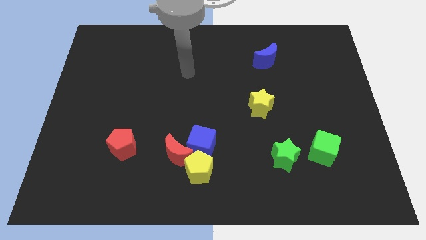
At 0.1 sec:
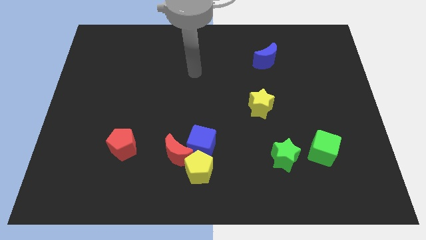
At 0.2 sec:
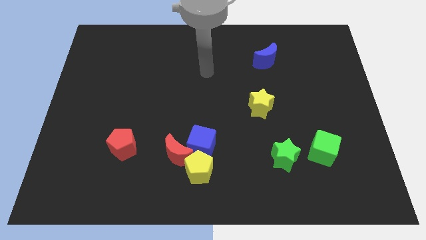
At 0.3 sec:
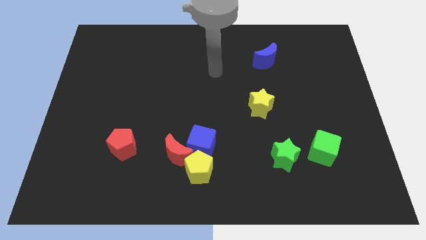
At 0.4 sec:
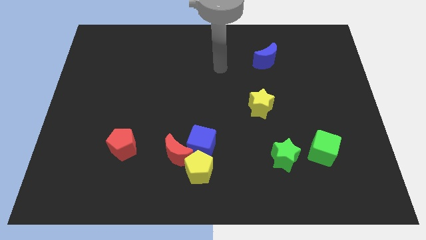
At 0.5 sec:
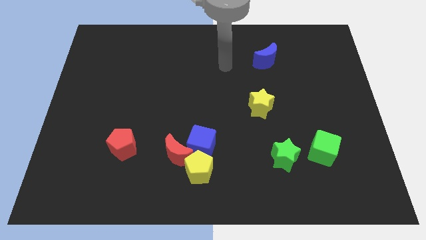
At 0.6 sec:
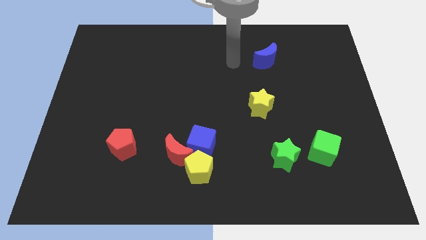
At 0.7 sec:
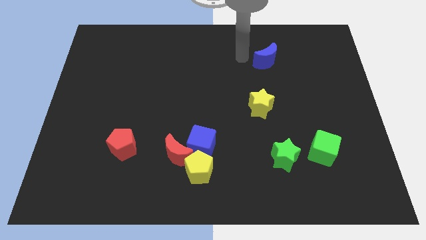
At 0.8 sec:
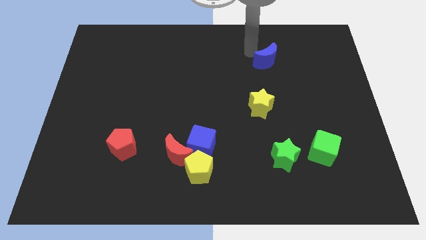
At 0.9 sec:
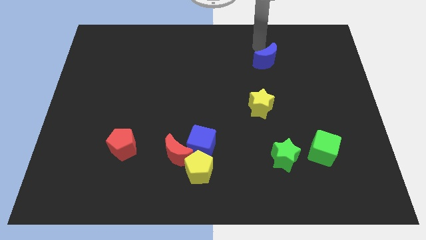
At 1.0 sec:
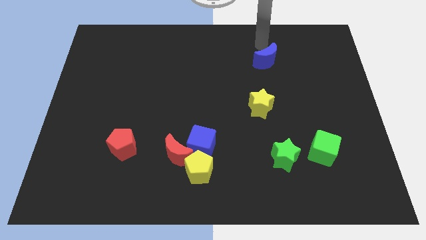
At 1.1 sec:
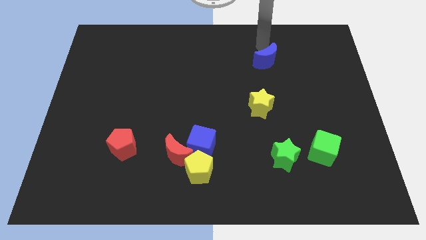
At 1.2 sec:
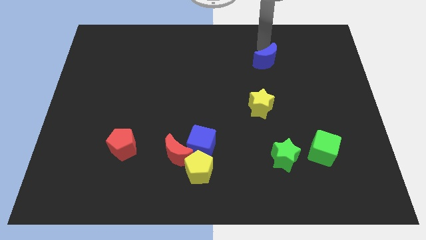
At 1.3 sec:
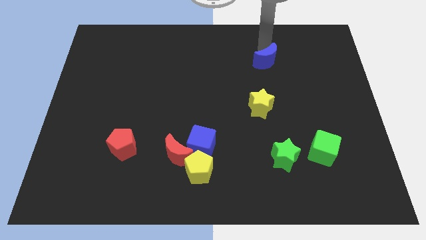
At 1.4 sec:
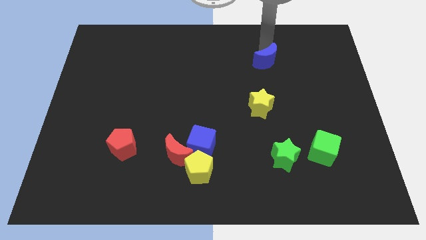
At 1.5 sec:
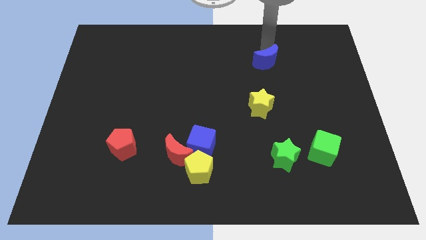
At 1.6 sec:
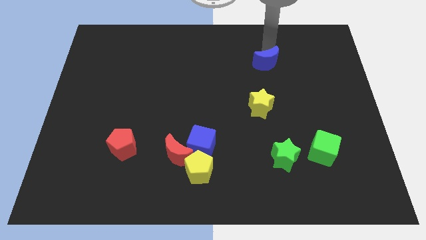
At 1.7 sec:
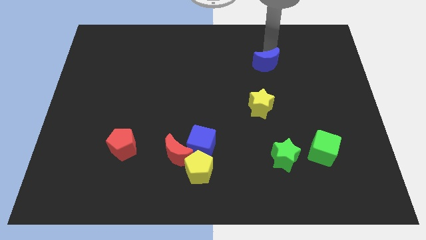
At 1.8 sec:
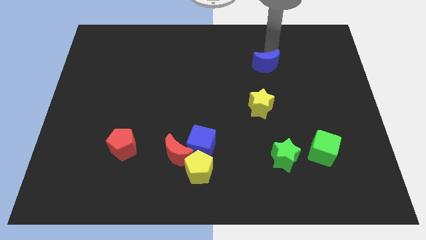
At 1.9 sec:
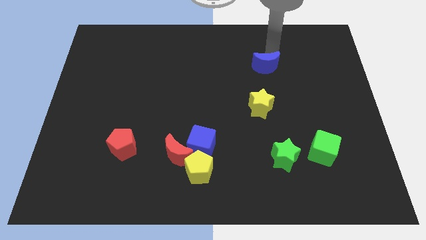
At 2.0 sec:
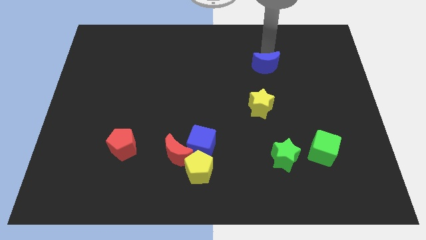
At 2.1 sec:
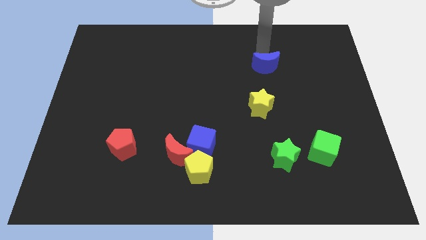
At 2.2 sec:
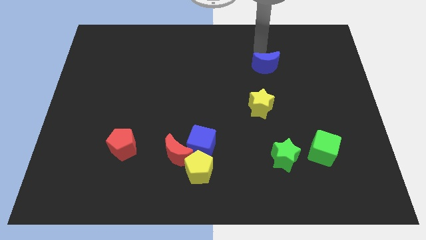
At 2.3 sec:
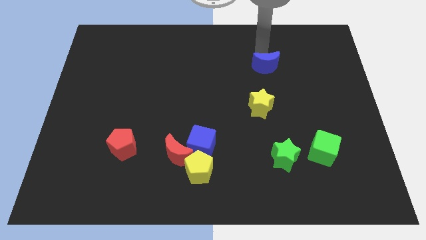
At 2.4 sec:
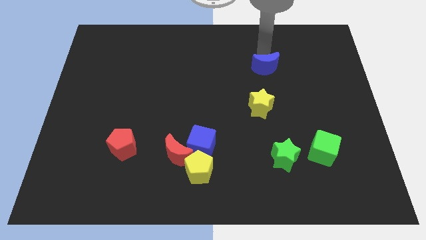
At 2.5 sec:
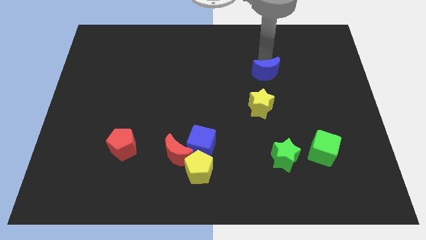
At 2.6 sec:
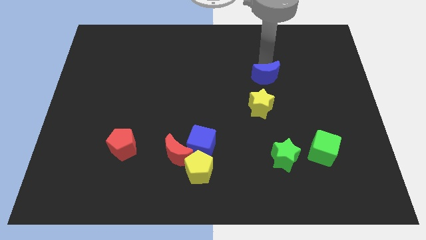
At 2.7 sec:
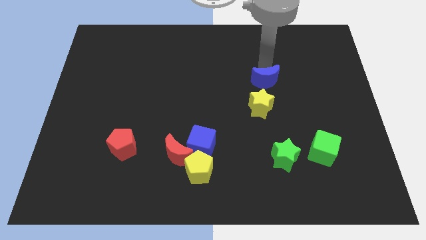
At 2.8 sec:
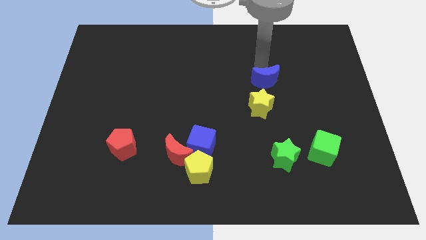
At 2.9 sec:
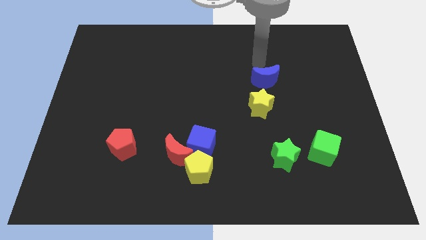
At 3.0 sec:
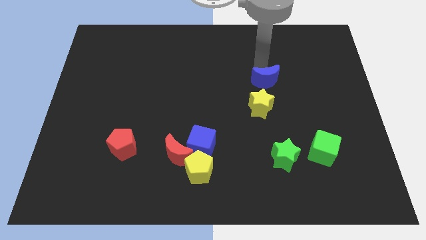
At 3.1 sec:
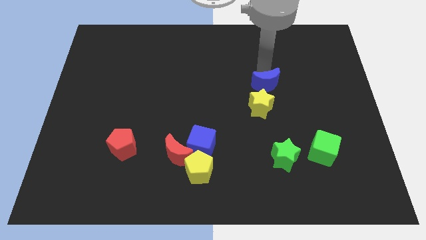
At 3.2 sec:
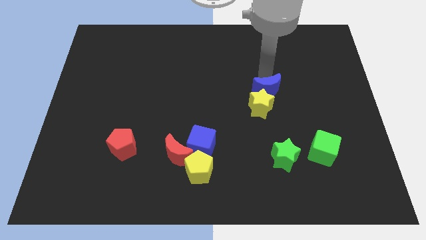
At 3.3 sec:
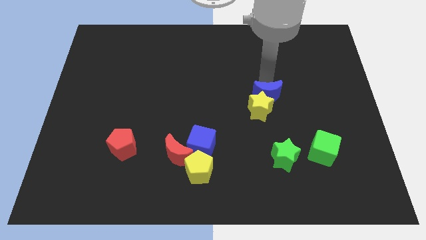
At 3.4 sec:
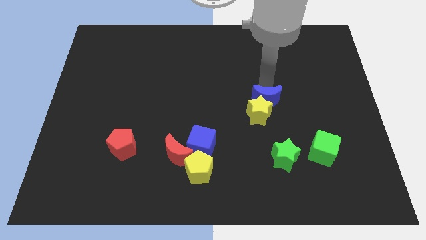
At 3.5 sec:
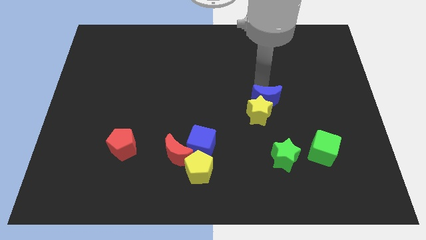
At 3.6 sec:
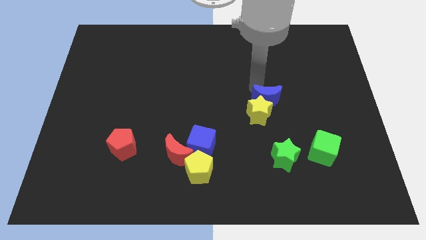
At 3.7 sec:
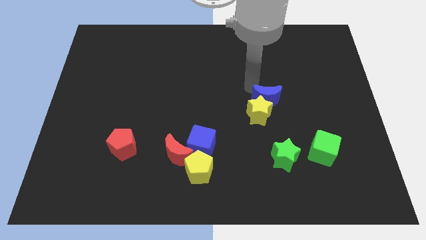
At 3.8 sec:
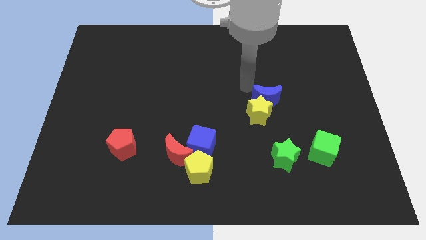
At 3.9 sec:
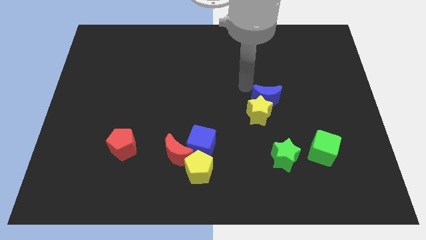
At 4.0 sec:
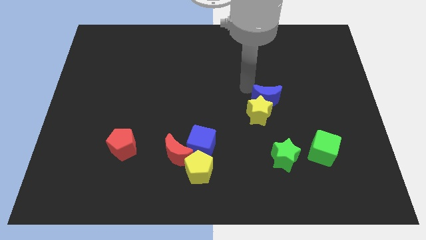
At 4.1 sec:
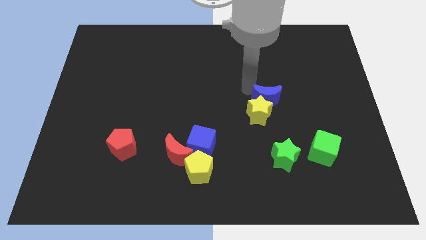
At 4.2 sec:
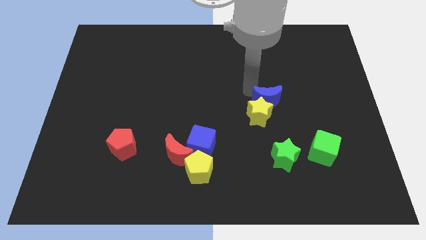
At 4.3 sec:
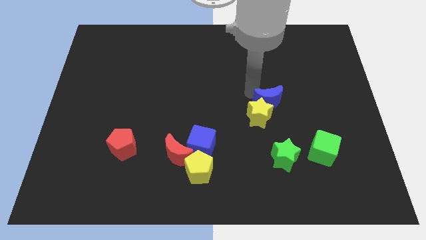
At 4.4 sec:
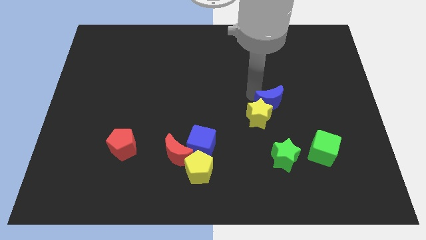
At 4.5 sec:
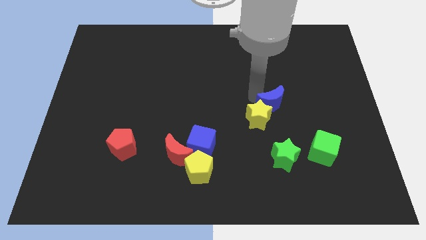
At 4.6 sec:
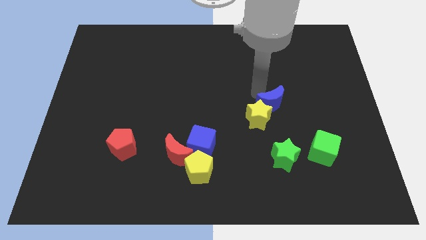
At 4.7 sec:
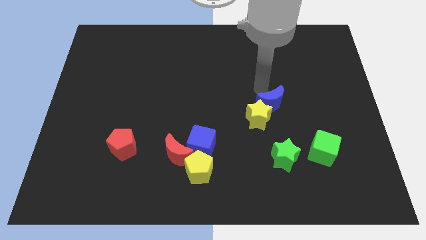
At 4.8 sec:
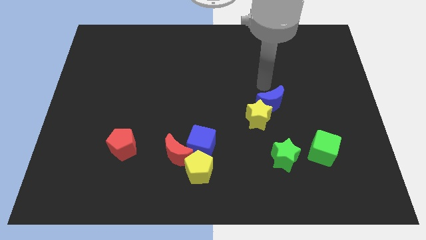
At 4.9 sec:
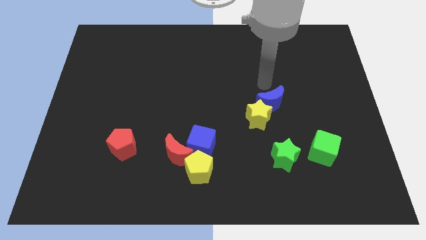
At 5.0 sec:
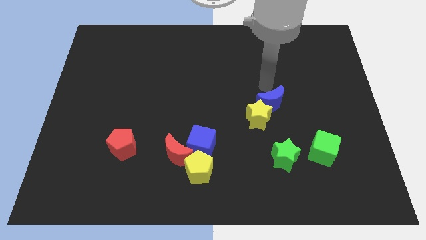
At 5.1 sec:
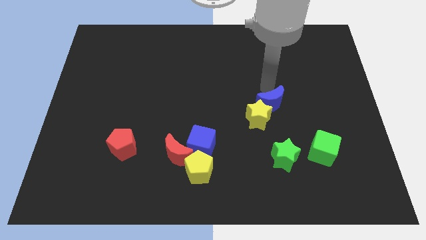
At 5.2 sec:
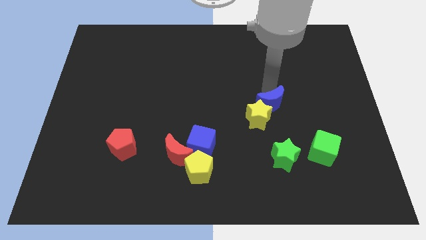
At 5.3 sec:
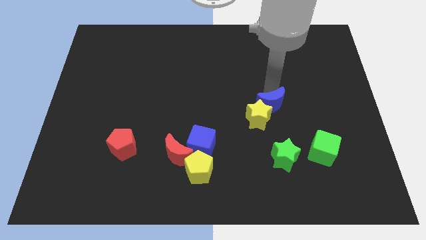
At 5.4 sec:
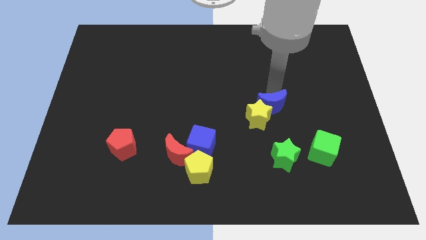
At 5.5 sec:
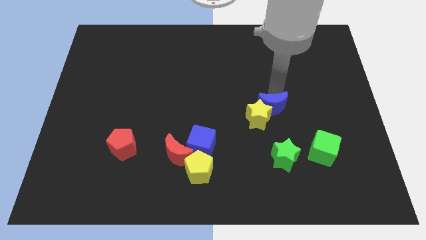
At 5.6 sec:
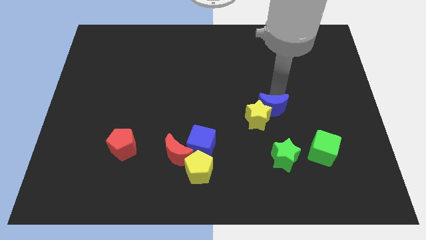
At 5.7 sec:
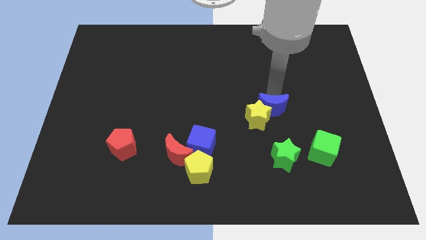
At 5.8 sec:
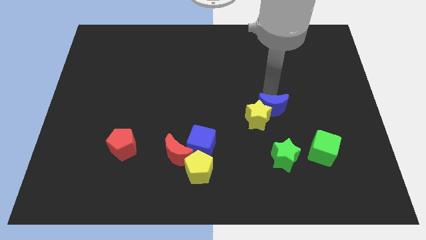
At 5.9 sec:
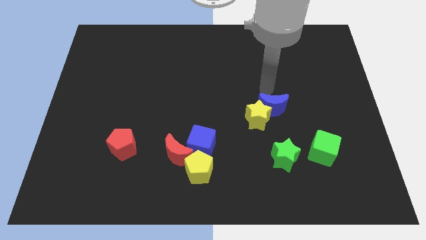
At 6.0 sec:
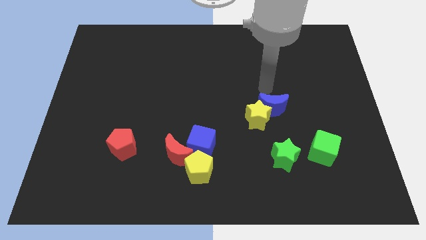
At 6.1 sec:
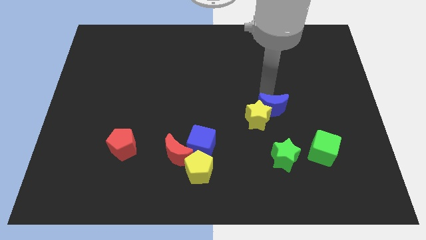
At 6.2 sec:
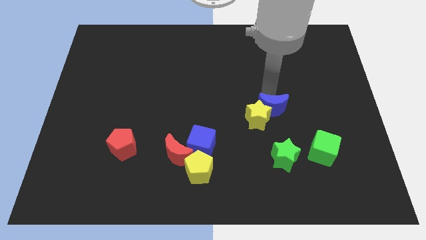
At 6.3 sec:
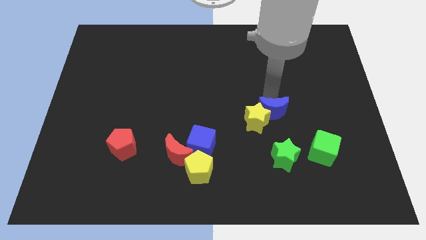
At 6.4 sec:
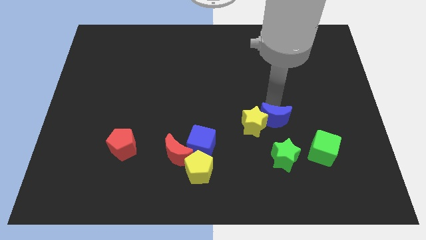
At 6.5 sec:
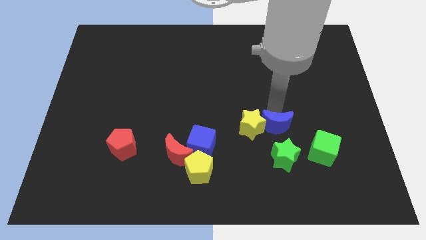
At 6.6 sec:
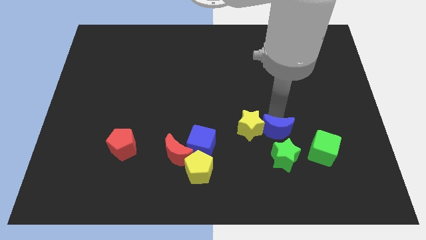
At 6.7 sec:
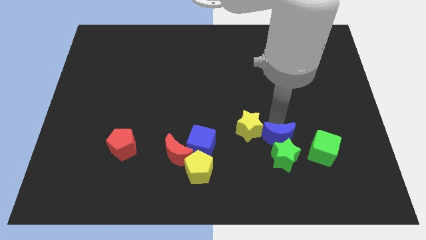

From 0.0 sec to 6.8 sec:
push the blue moon to the green star
